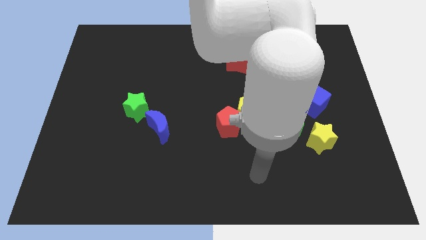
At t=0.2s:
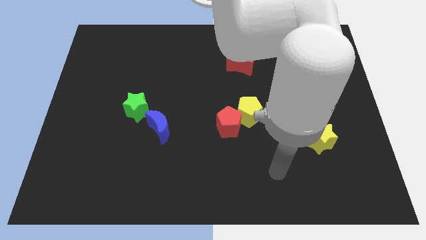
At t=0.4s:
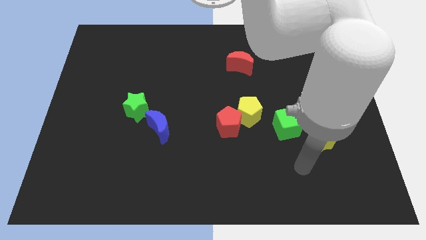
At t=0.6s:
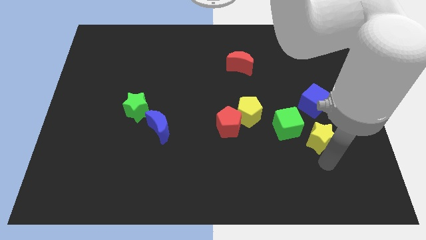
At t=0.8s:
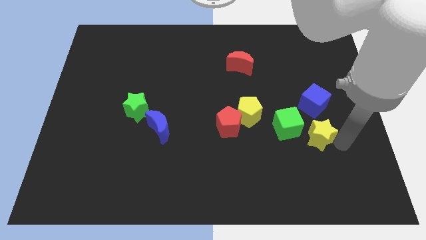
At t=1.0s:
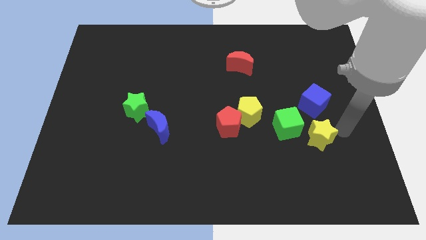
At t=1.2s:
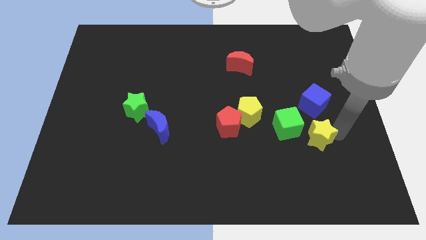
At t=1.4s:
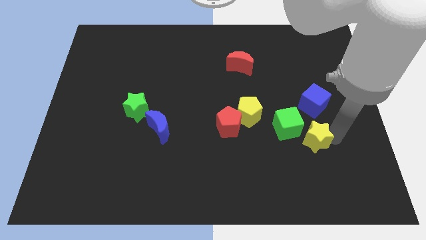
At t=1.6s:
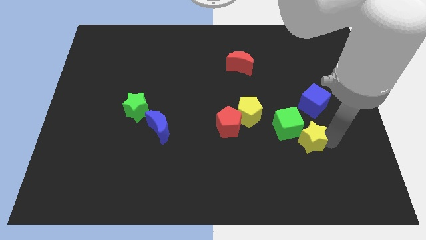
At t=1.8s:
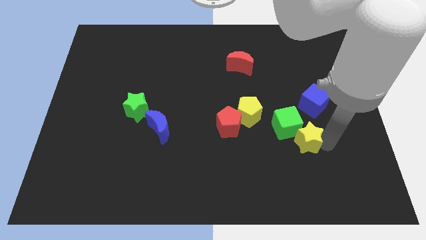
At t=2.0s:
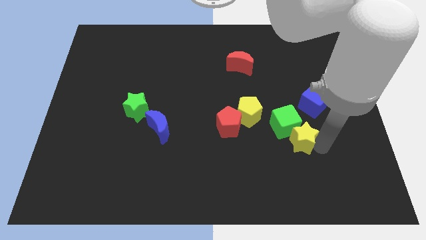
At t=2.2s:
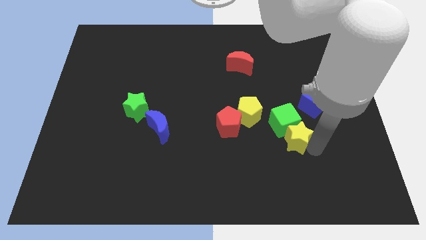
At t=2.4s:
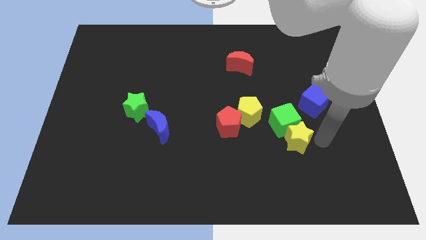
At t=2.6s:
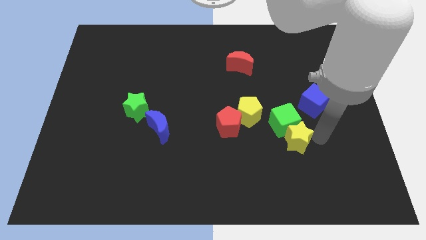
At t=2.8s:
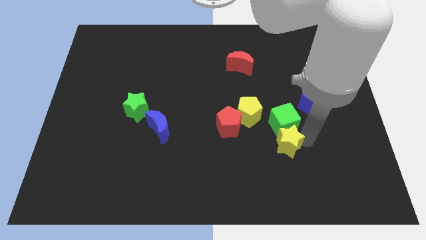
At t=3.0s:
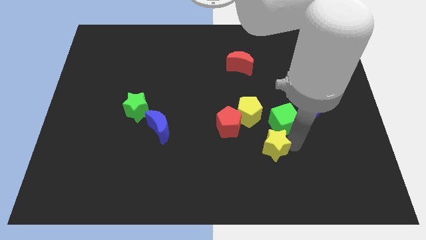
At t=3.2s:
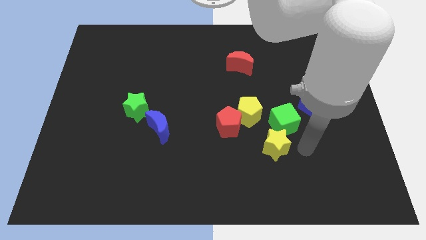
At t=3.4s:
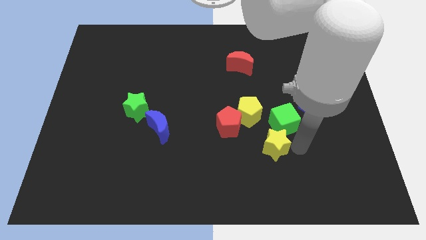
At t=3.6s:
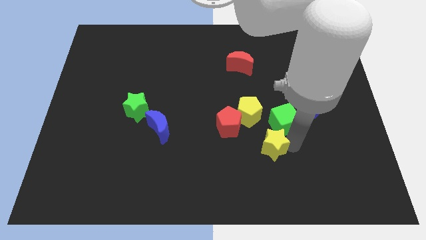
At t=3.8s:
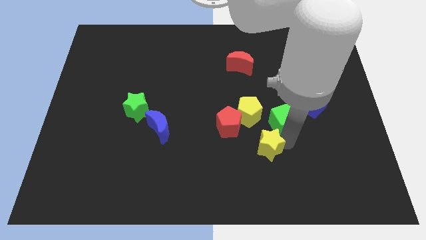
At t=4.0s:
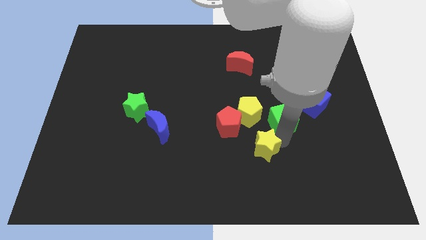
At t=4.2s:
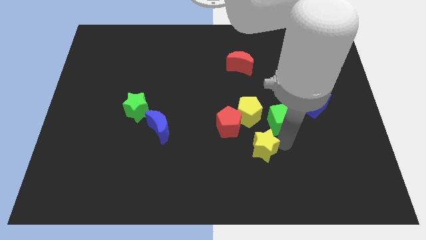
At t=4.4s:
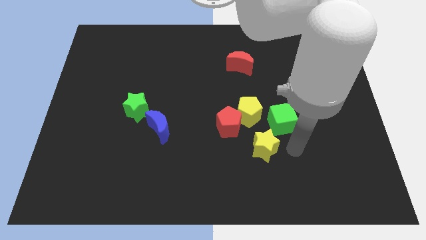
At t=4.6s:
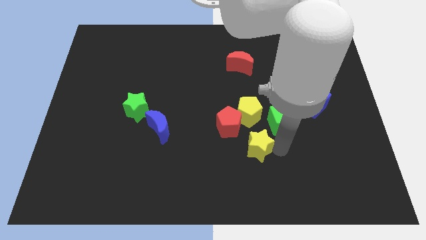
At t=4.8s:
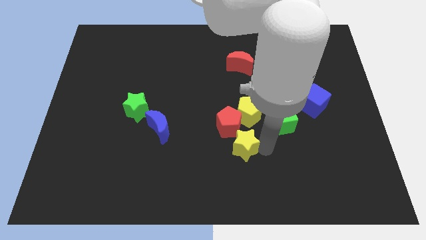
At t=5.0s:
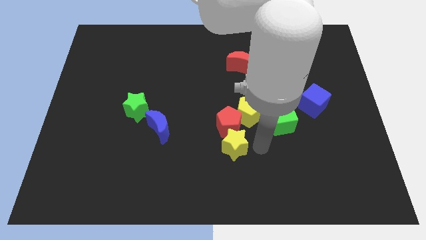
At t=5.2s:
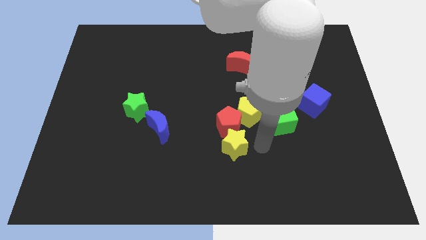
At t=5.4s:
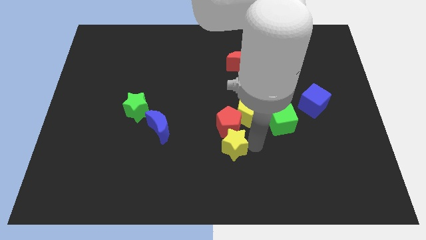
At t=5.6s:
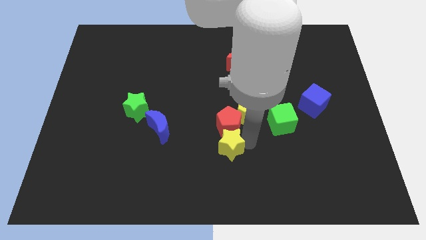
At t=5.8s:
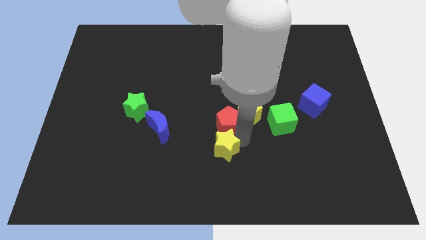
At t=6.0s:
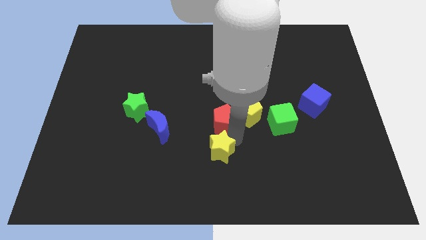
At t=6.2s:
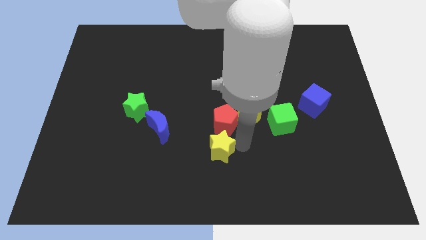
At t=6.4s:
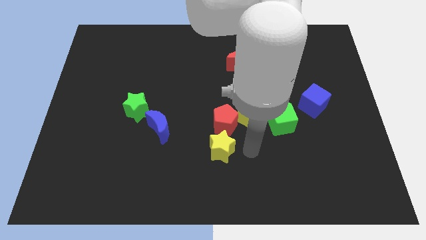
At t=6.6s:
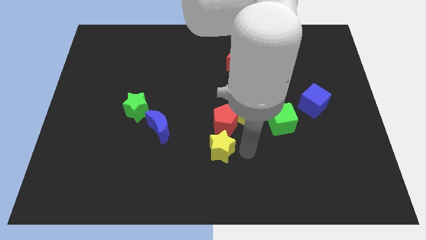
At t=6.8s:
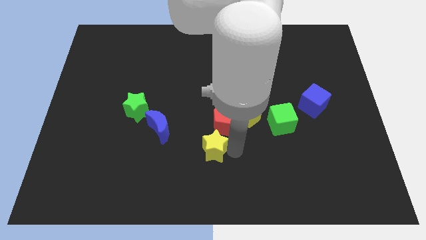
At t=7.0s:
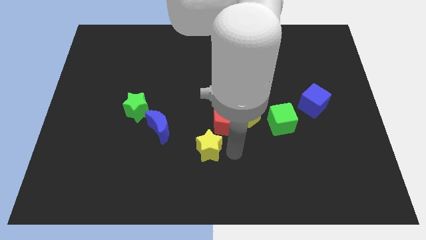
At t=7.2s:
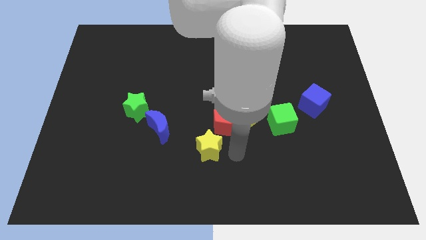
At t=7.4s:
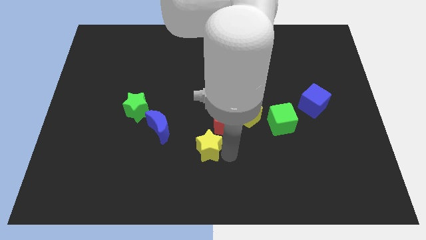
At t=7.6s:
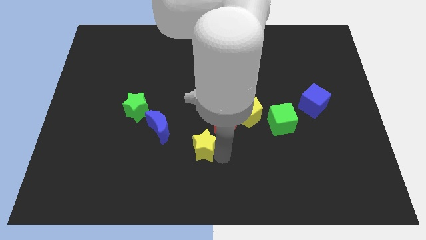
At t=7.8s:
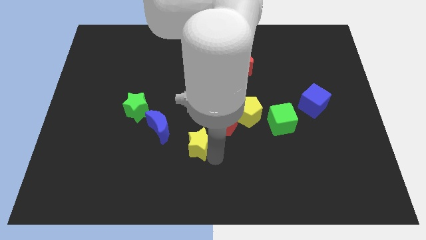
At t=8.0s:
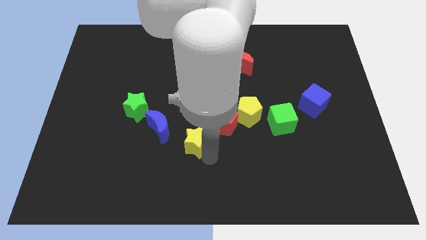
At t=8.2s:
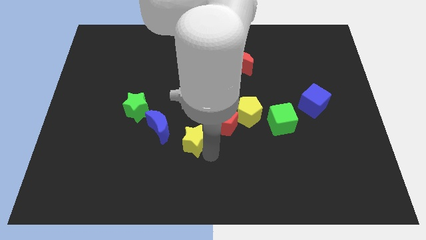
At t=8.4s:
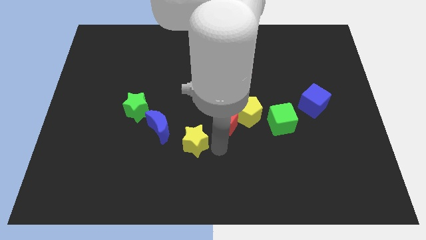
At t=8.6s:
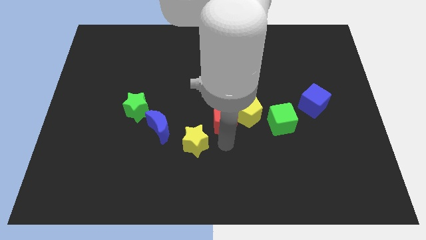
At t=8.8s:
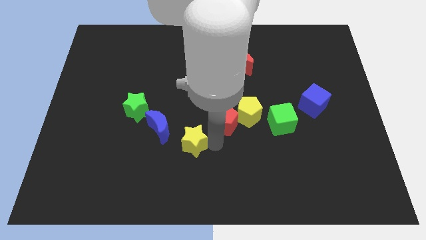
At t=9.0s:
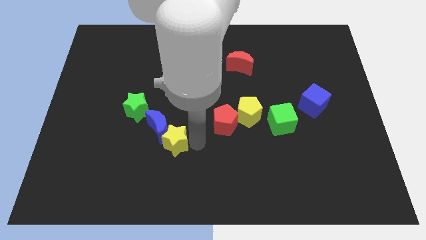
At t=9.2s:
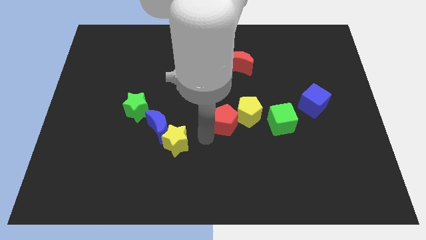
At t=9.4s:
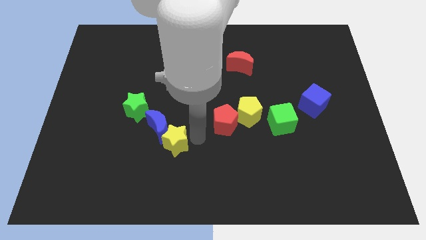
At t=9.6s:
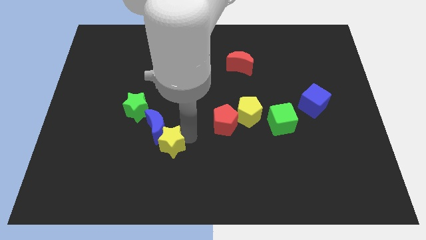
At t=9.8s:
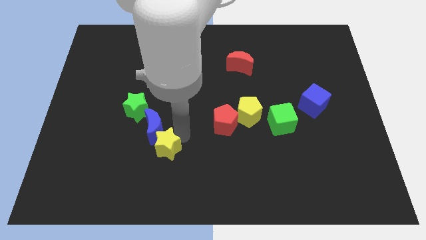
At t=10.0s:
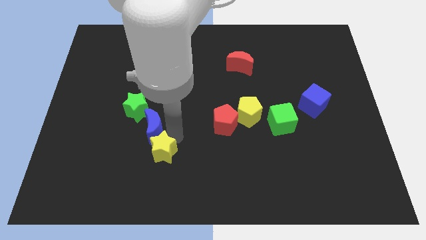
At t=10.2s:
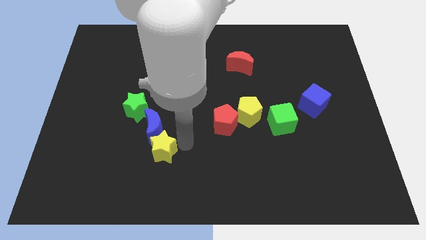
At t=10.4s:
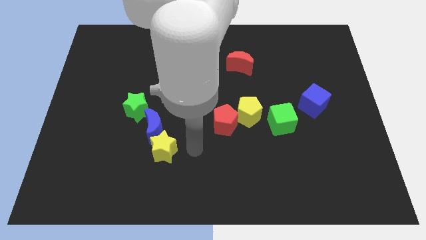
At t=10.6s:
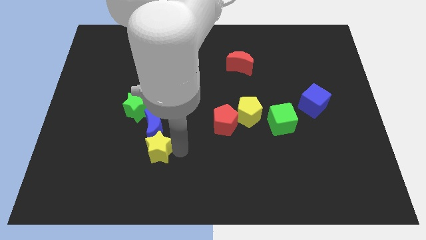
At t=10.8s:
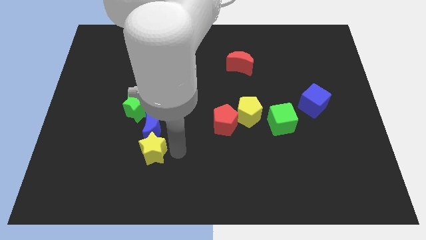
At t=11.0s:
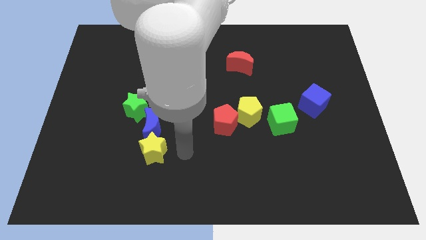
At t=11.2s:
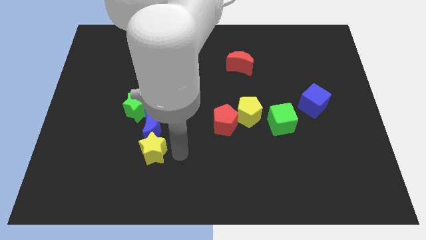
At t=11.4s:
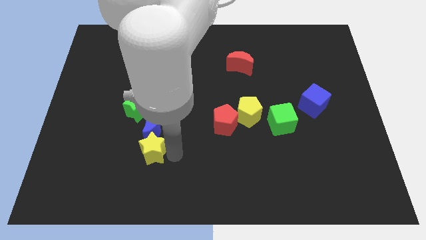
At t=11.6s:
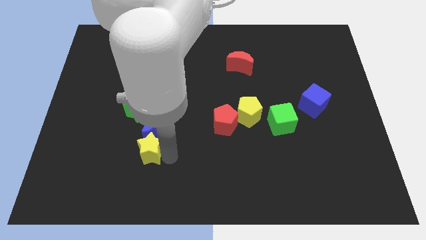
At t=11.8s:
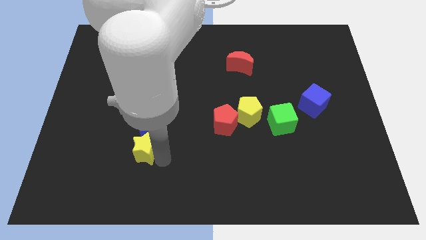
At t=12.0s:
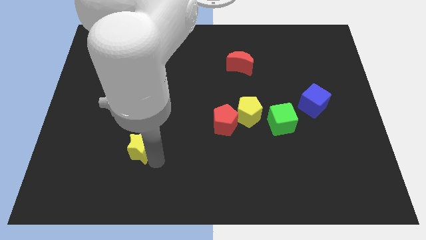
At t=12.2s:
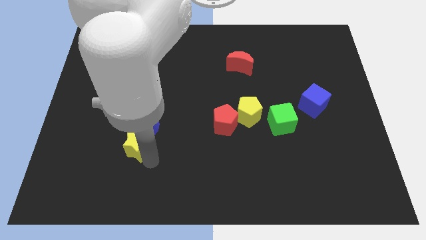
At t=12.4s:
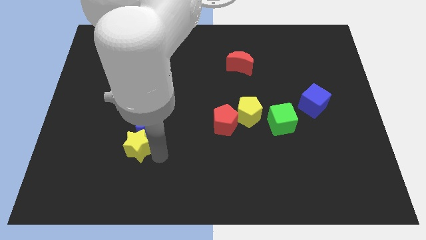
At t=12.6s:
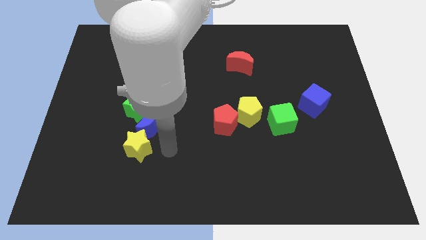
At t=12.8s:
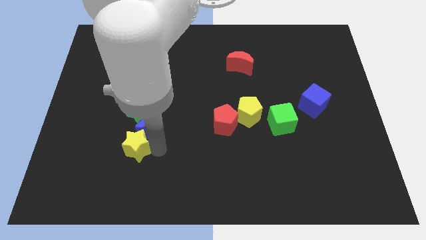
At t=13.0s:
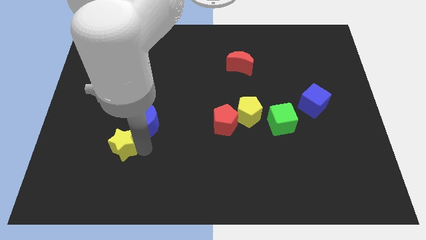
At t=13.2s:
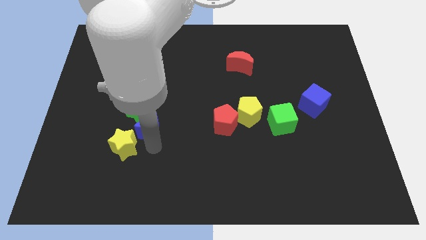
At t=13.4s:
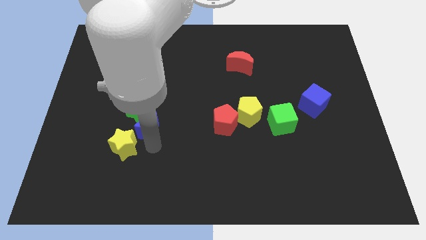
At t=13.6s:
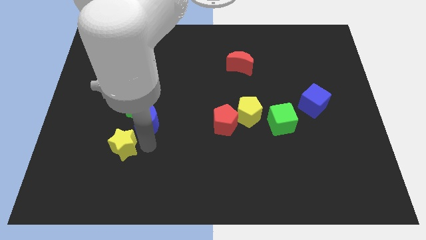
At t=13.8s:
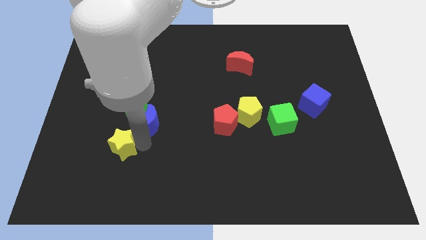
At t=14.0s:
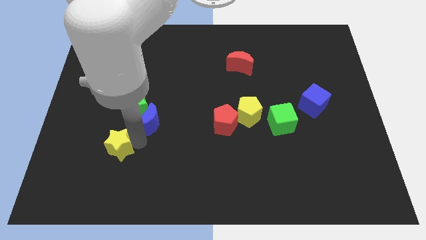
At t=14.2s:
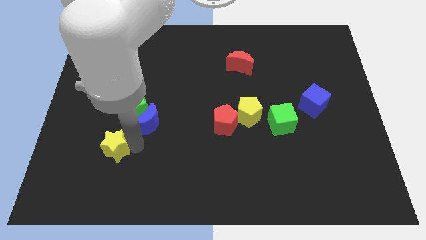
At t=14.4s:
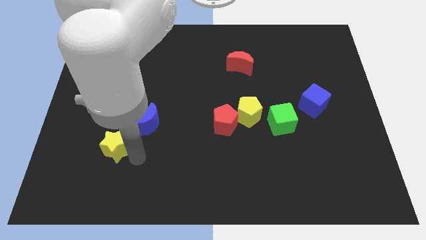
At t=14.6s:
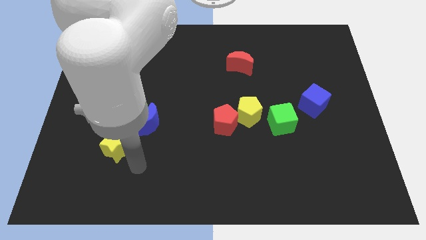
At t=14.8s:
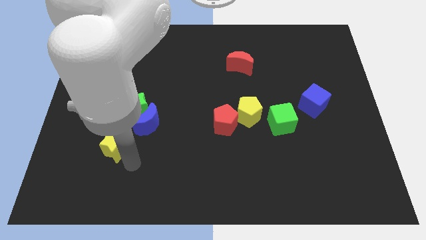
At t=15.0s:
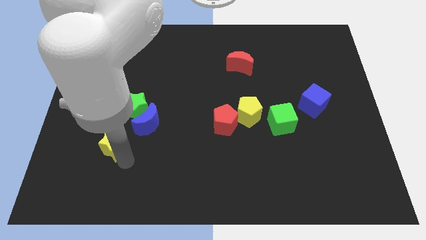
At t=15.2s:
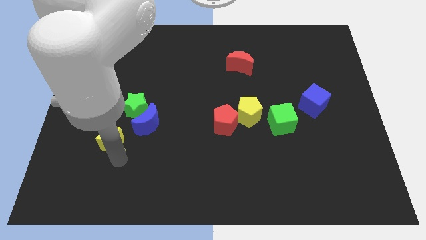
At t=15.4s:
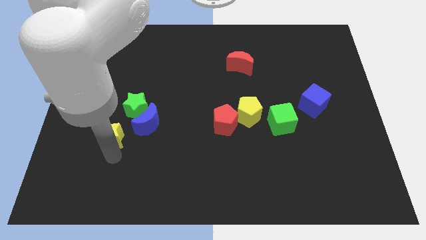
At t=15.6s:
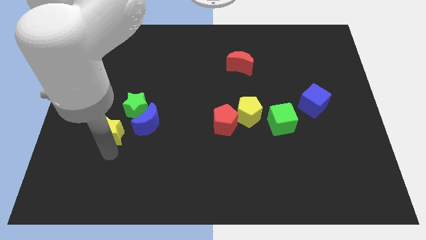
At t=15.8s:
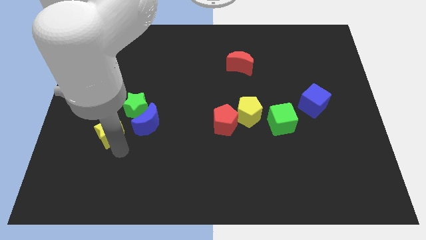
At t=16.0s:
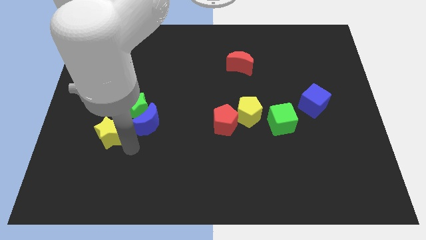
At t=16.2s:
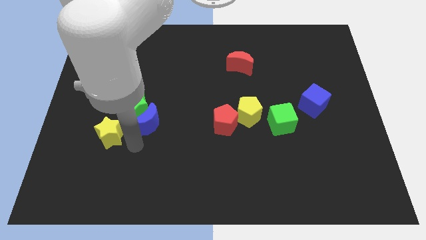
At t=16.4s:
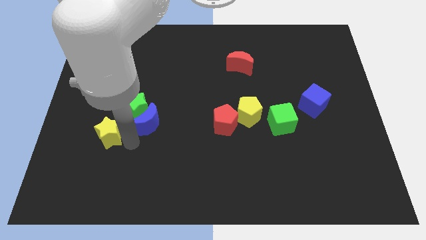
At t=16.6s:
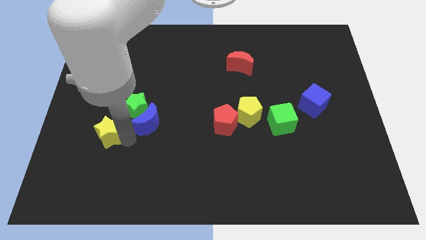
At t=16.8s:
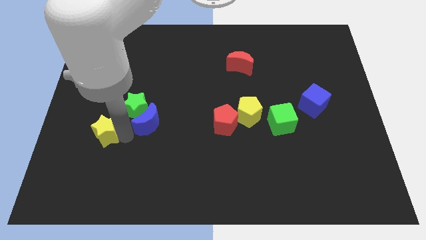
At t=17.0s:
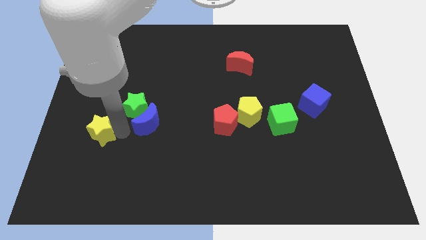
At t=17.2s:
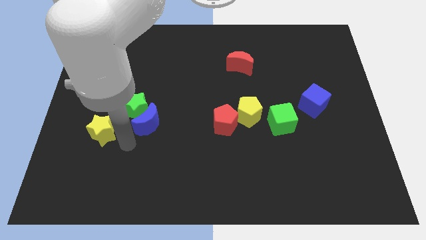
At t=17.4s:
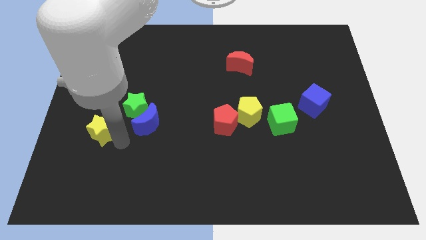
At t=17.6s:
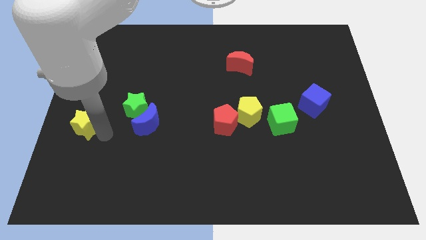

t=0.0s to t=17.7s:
slide the yellow star to the left side
